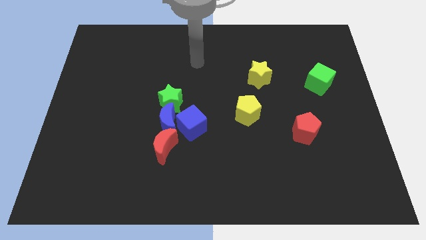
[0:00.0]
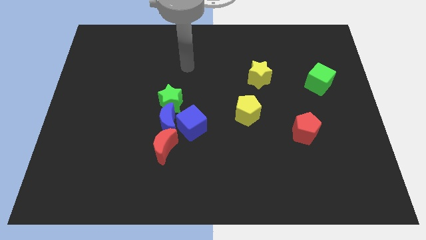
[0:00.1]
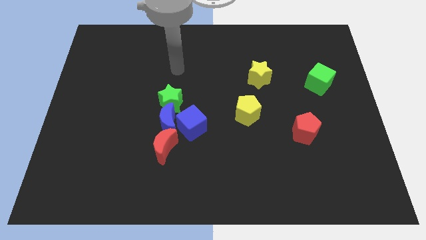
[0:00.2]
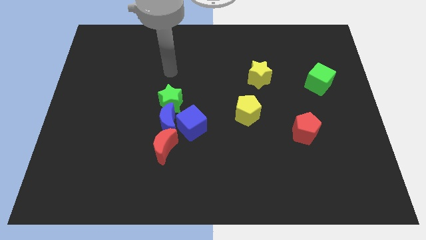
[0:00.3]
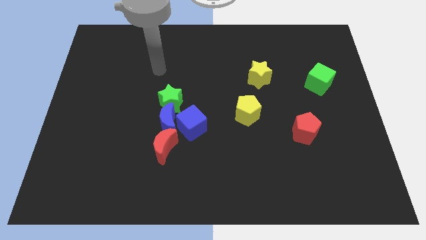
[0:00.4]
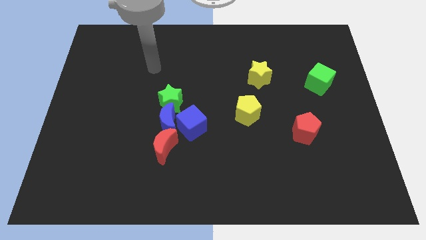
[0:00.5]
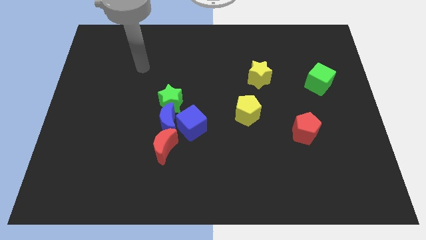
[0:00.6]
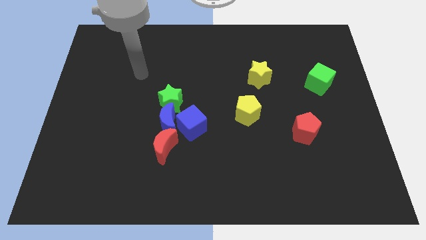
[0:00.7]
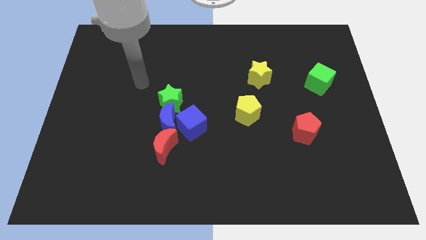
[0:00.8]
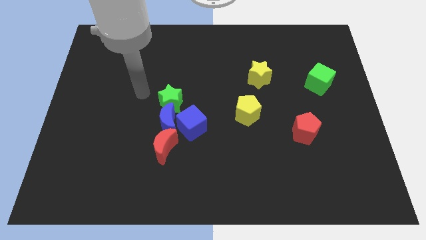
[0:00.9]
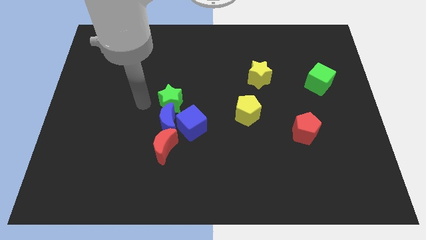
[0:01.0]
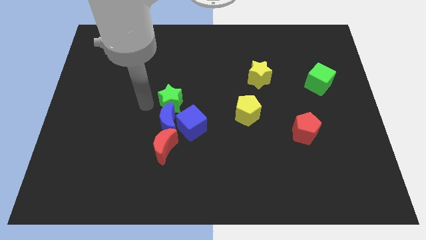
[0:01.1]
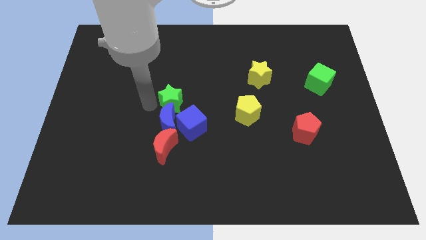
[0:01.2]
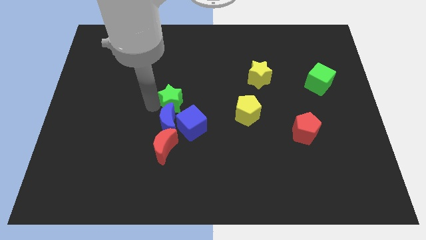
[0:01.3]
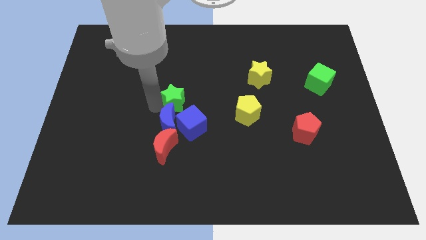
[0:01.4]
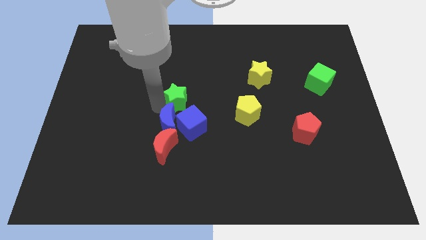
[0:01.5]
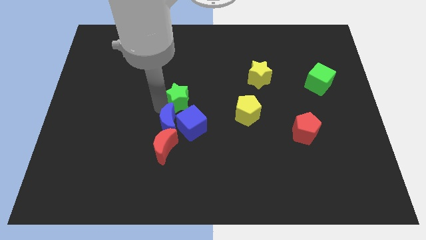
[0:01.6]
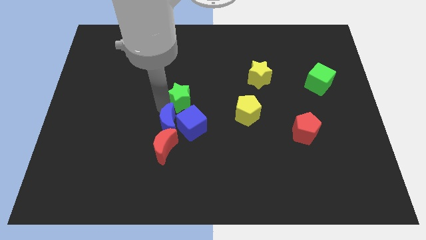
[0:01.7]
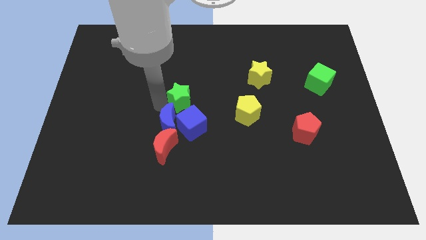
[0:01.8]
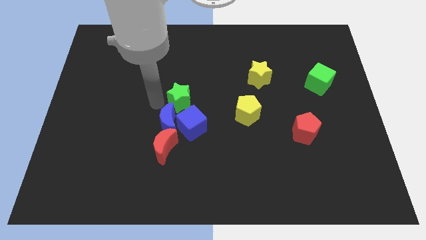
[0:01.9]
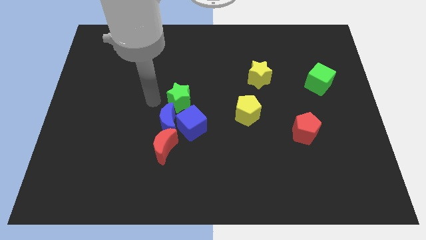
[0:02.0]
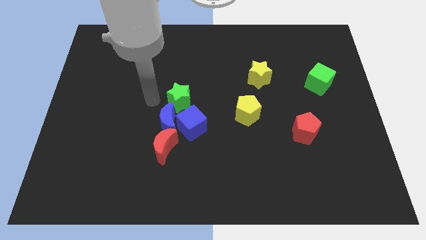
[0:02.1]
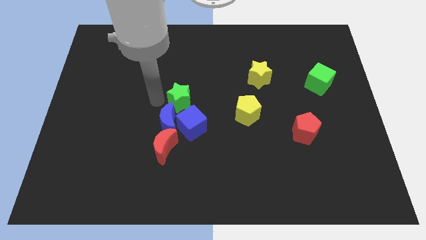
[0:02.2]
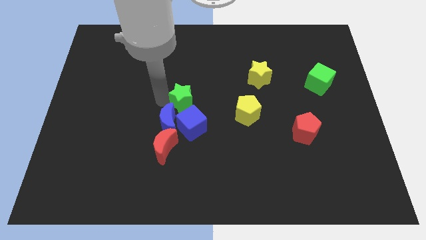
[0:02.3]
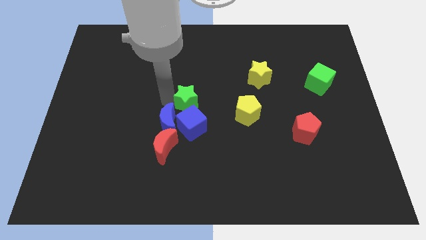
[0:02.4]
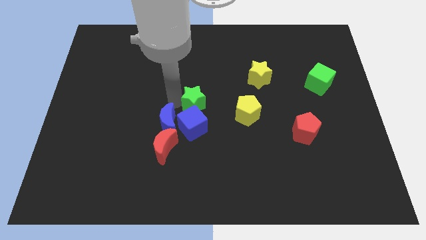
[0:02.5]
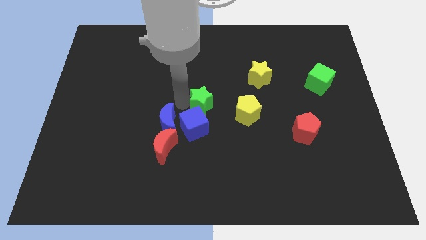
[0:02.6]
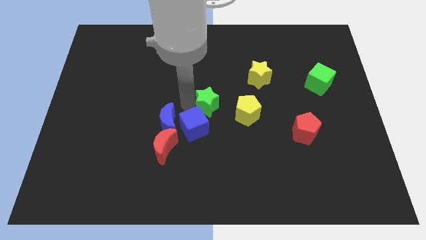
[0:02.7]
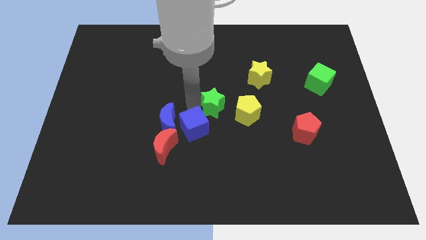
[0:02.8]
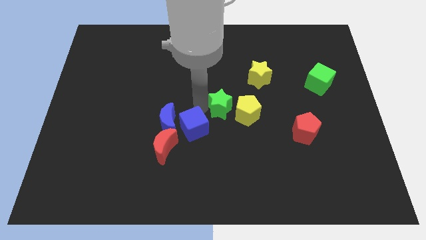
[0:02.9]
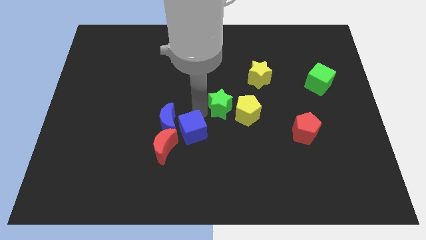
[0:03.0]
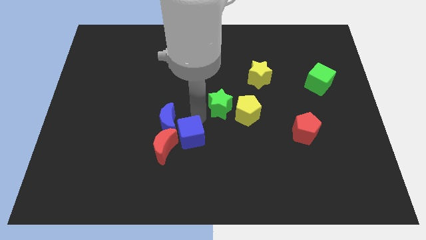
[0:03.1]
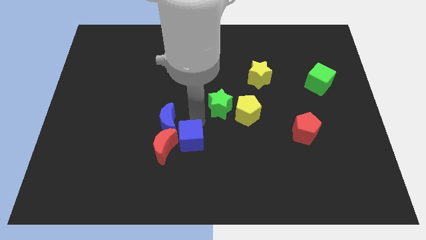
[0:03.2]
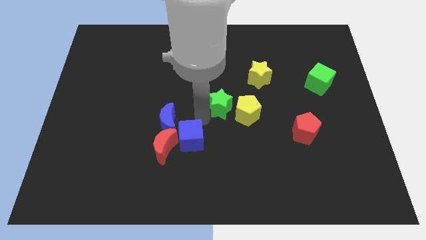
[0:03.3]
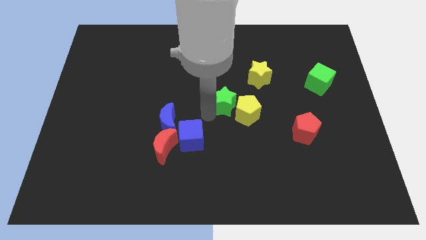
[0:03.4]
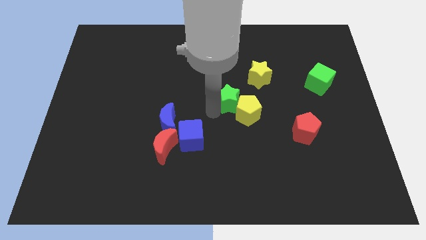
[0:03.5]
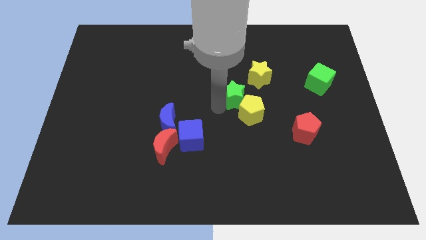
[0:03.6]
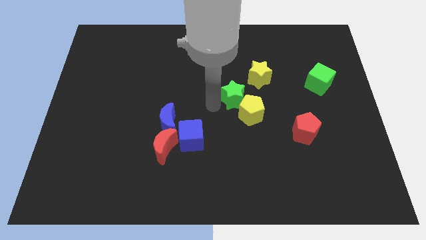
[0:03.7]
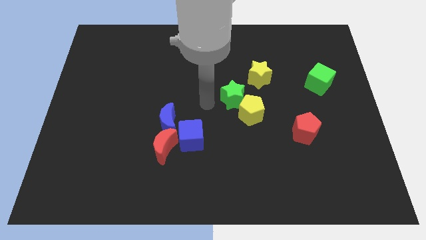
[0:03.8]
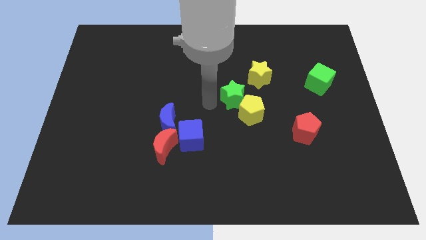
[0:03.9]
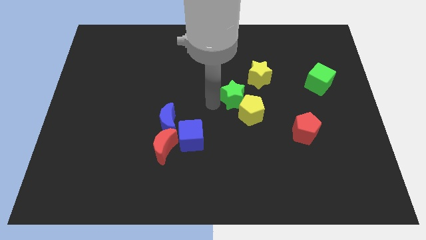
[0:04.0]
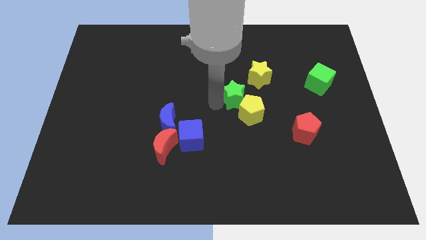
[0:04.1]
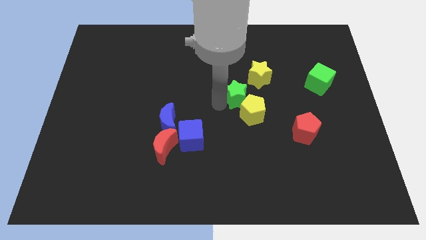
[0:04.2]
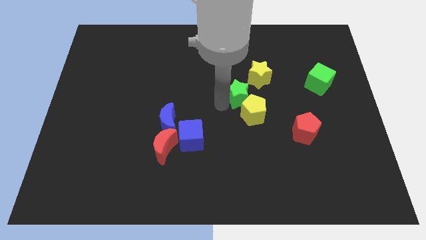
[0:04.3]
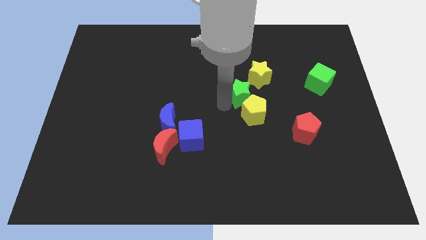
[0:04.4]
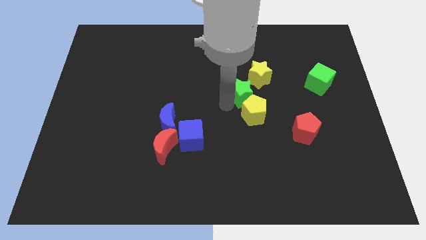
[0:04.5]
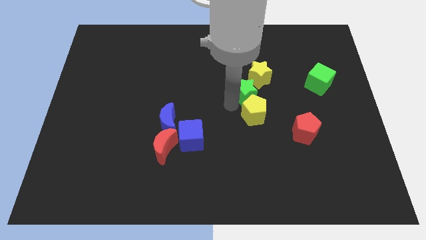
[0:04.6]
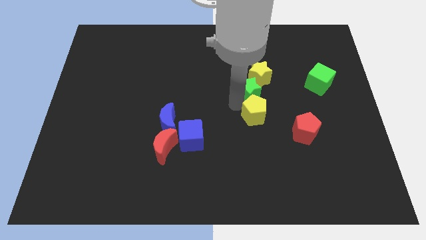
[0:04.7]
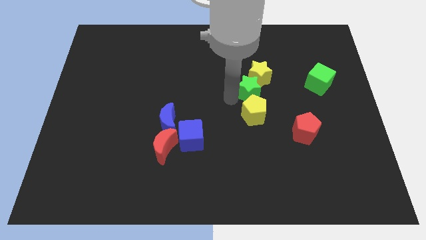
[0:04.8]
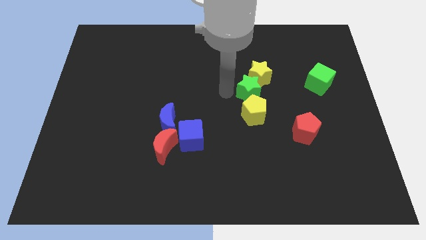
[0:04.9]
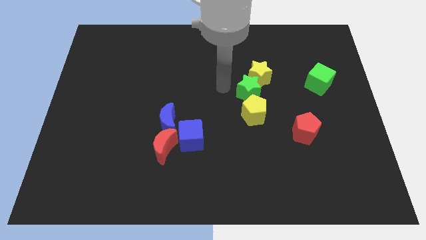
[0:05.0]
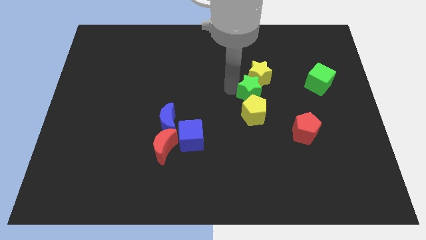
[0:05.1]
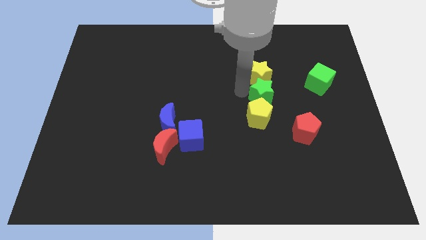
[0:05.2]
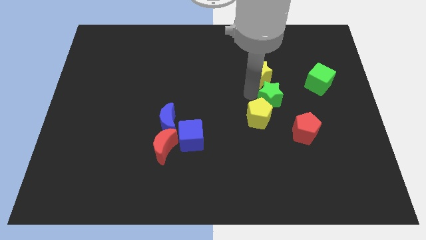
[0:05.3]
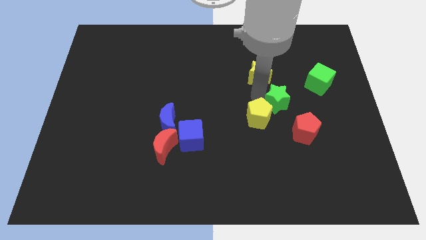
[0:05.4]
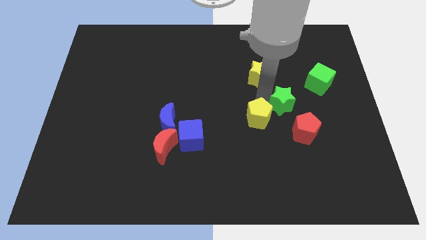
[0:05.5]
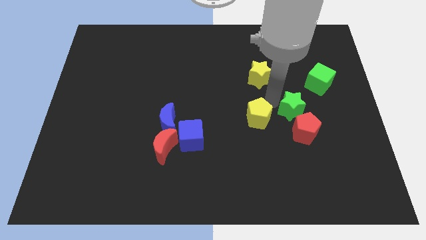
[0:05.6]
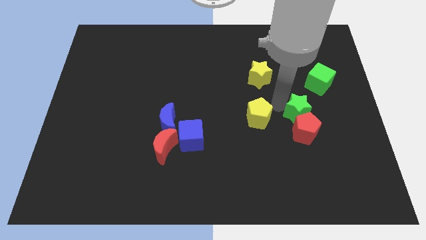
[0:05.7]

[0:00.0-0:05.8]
push the green star to the top right of the red pentagon

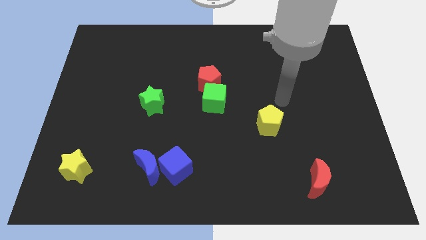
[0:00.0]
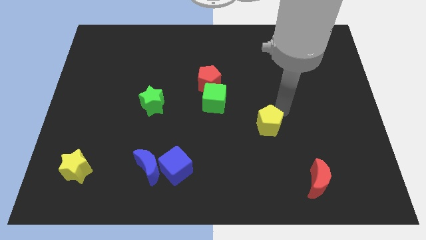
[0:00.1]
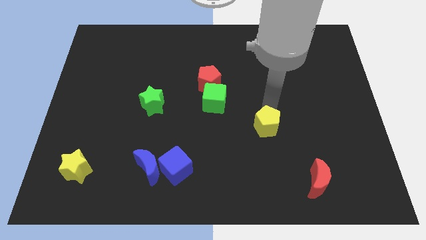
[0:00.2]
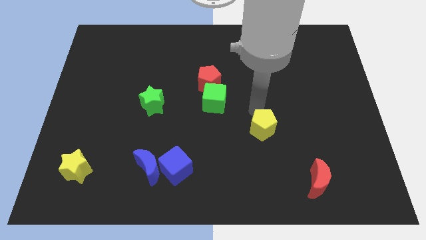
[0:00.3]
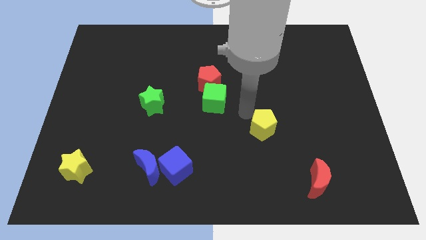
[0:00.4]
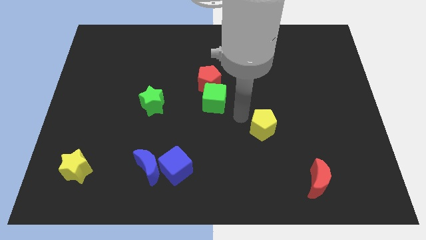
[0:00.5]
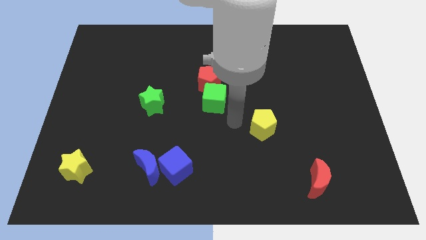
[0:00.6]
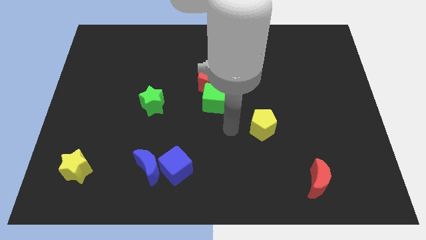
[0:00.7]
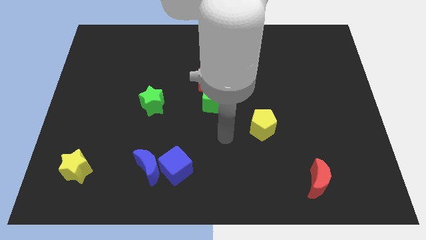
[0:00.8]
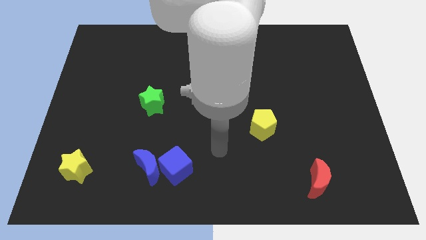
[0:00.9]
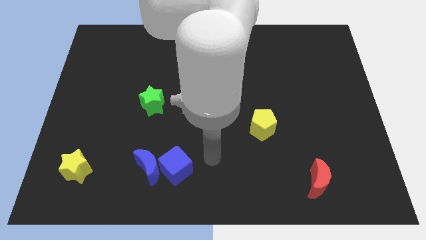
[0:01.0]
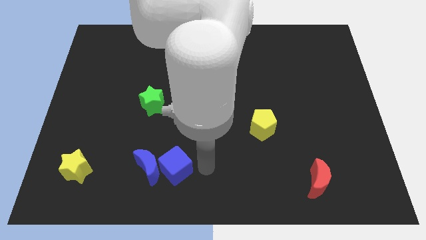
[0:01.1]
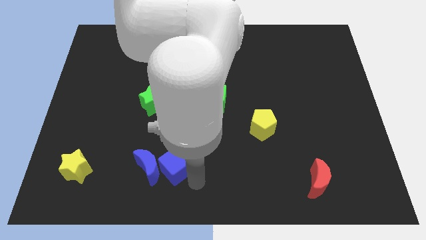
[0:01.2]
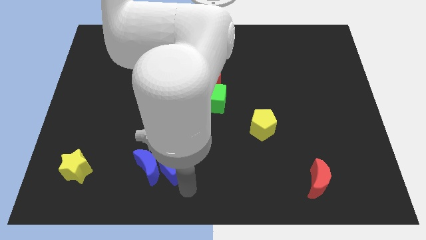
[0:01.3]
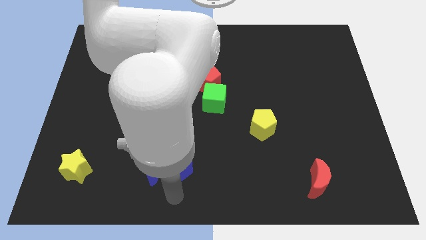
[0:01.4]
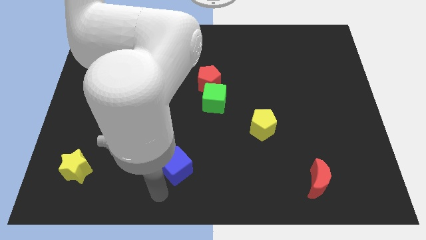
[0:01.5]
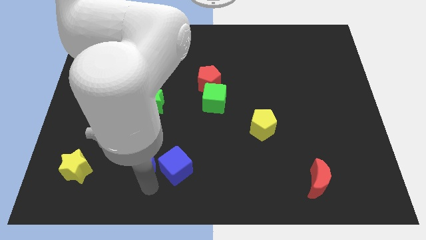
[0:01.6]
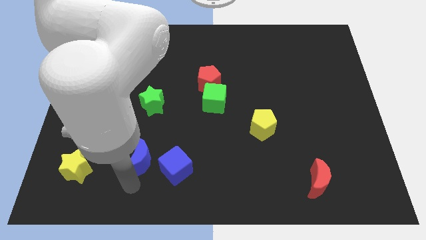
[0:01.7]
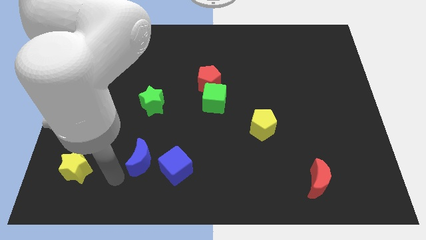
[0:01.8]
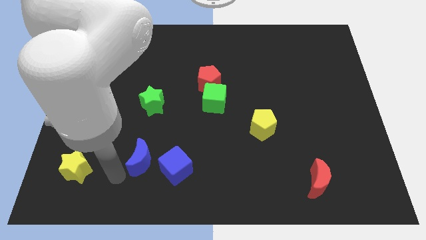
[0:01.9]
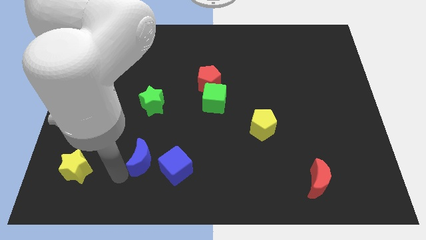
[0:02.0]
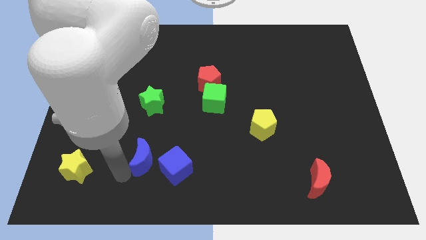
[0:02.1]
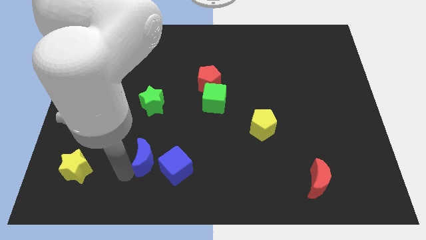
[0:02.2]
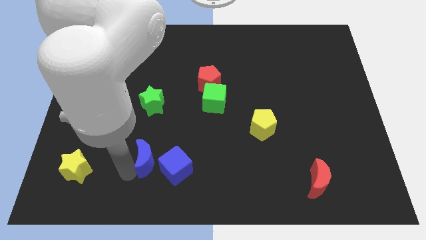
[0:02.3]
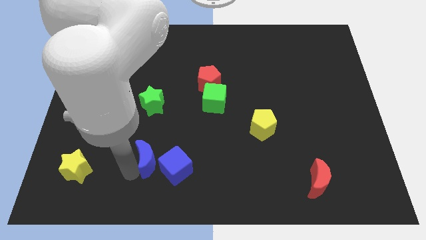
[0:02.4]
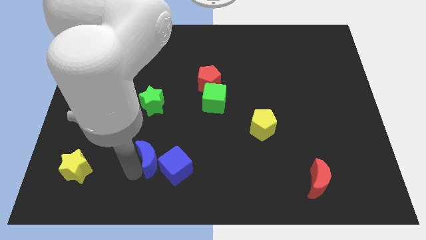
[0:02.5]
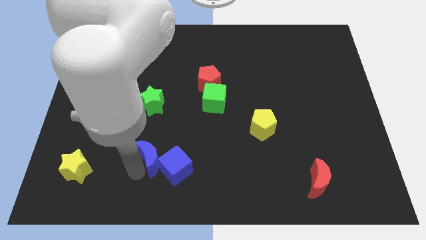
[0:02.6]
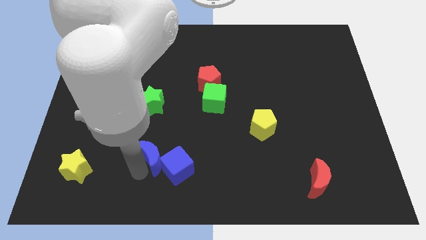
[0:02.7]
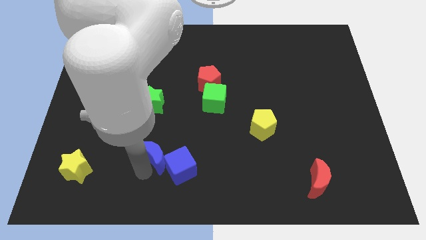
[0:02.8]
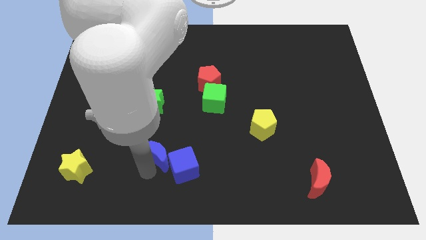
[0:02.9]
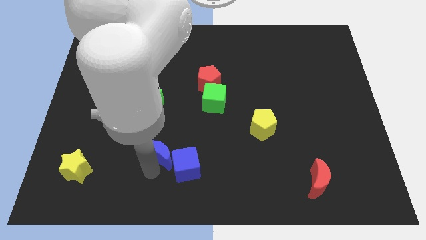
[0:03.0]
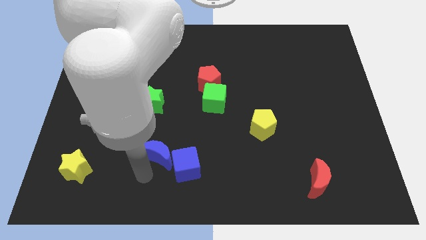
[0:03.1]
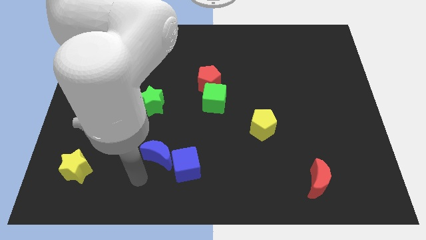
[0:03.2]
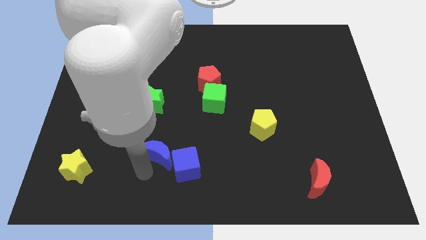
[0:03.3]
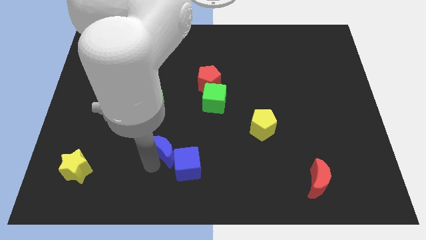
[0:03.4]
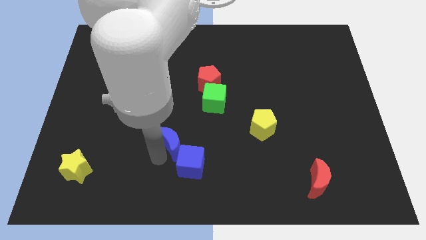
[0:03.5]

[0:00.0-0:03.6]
push the blue moon to the top of the blue cube
